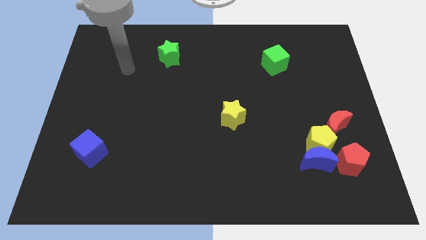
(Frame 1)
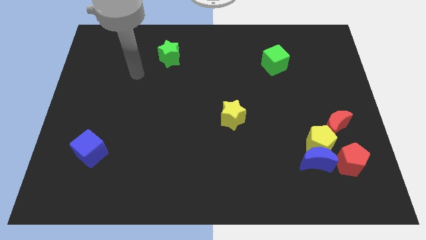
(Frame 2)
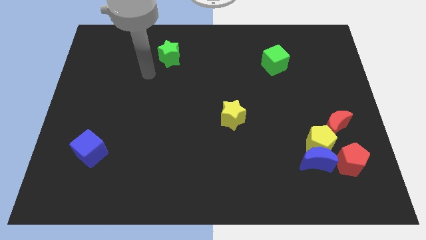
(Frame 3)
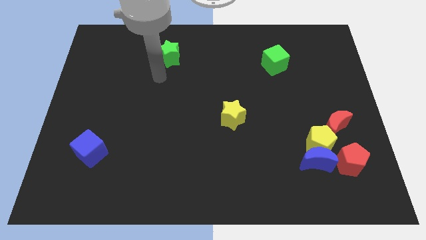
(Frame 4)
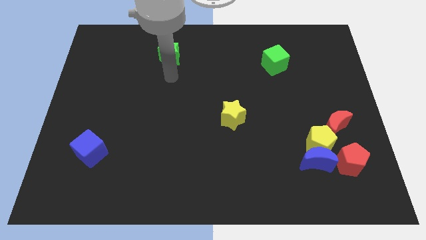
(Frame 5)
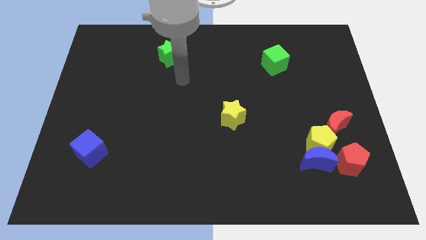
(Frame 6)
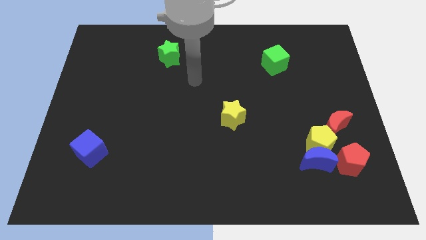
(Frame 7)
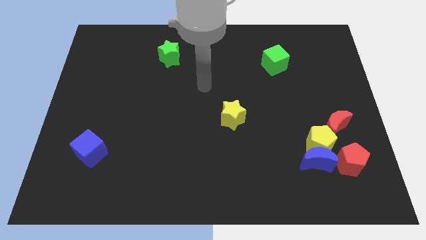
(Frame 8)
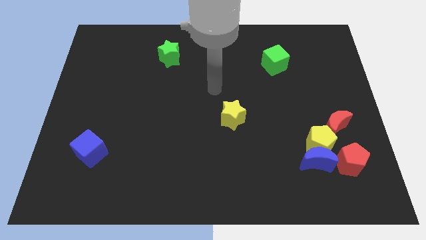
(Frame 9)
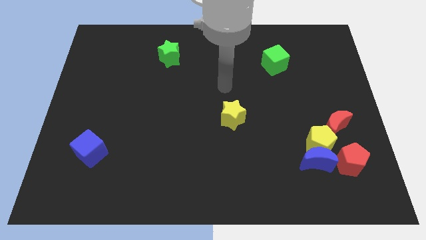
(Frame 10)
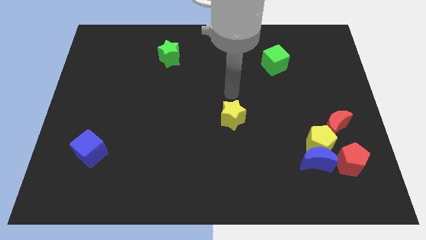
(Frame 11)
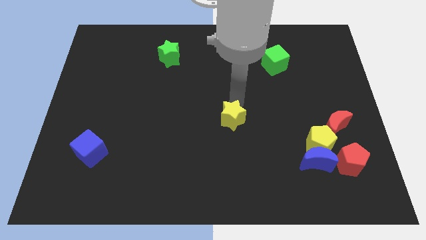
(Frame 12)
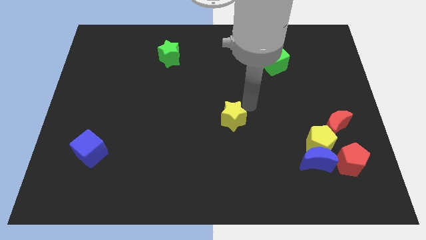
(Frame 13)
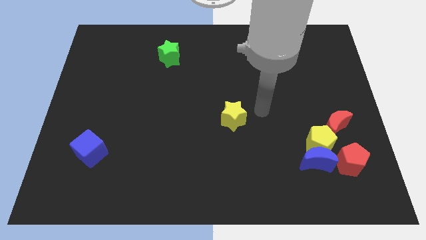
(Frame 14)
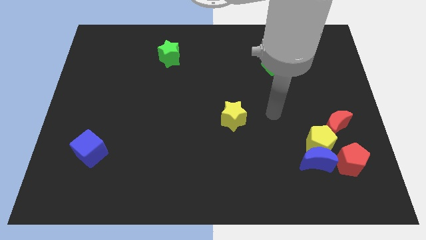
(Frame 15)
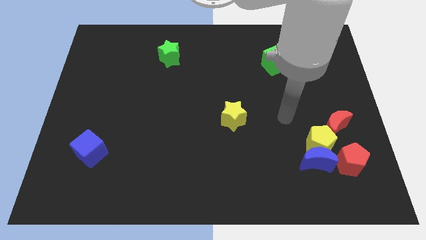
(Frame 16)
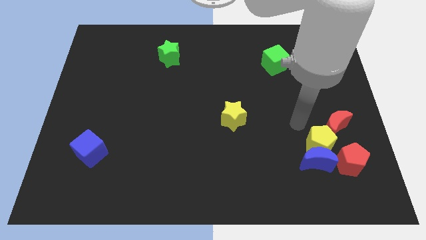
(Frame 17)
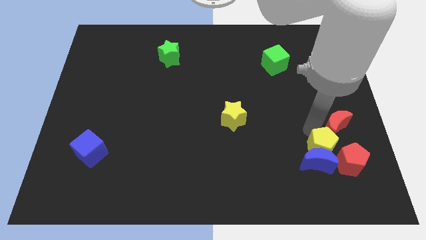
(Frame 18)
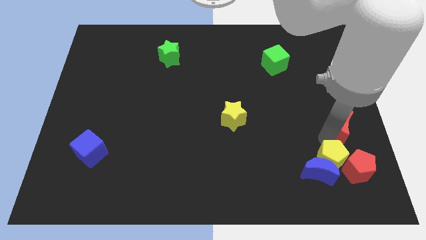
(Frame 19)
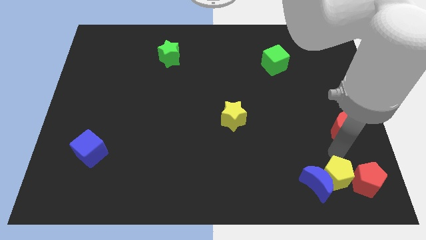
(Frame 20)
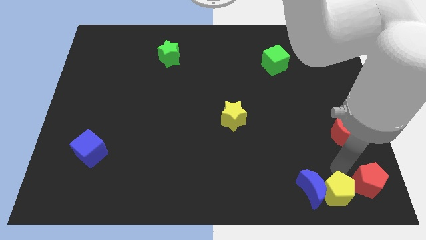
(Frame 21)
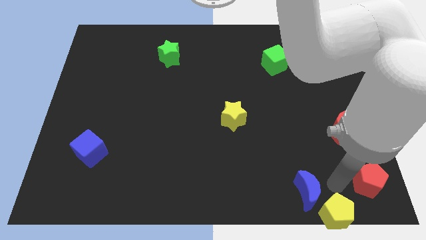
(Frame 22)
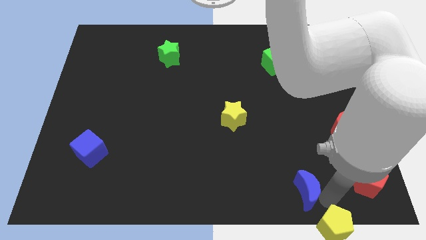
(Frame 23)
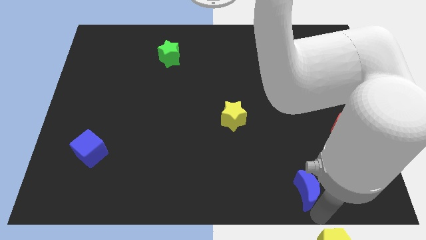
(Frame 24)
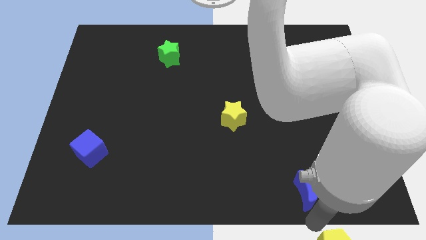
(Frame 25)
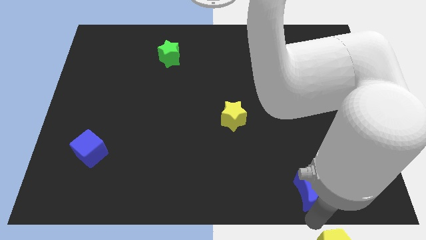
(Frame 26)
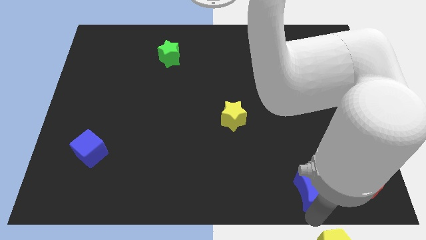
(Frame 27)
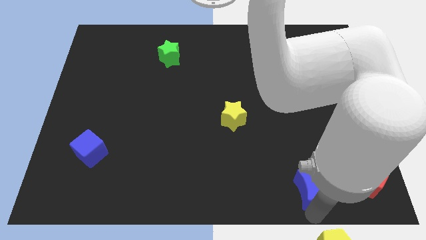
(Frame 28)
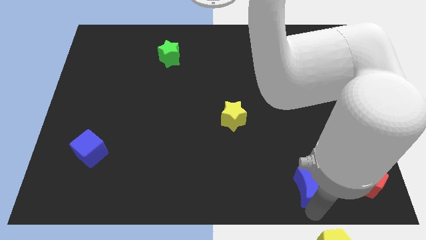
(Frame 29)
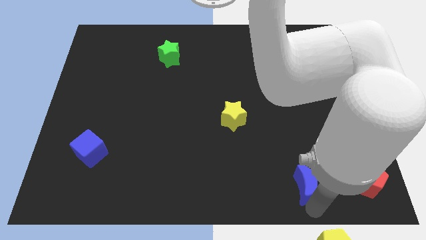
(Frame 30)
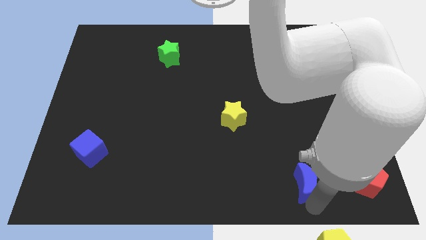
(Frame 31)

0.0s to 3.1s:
pull the blue moon apart from the yellow pentagon and red pentagon

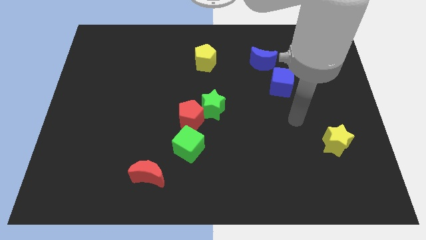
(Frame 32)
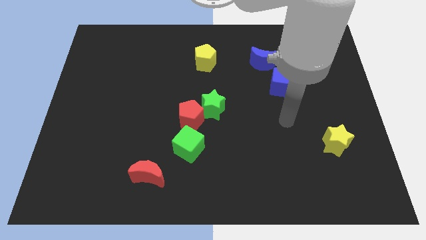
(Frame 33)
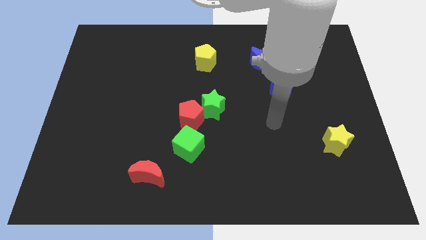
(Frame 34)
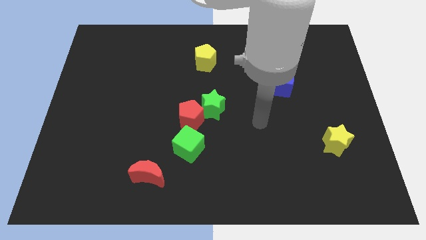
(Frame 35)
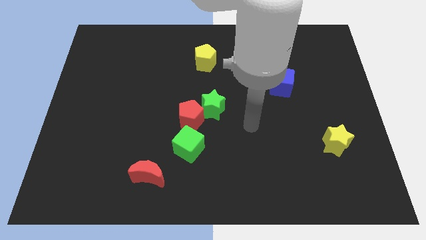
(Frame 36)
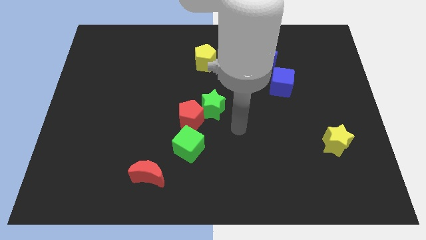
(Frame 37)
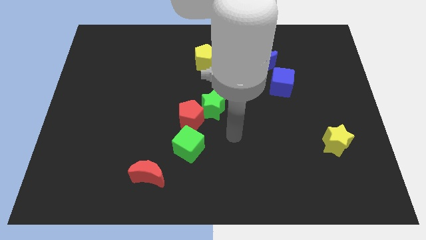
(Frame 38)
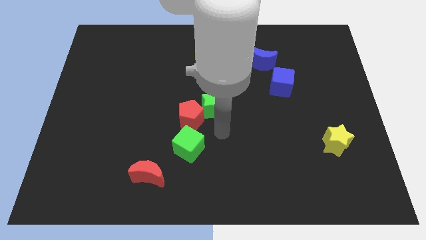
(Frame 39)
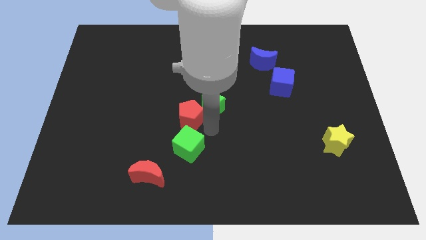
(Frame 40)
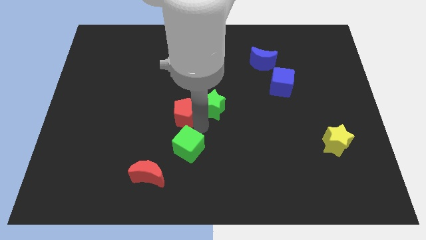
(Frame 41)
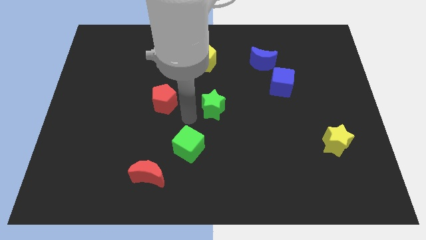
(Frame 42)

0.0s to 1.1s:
move the green star away from the red pentagon

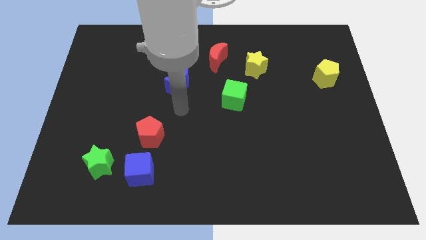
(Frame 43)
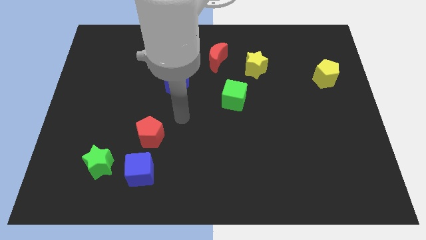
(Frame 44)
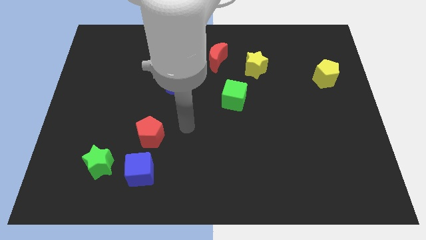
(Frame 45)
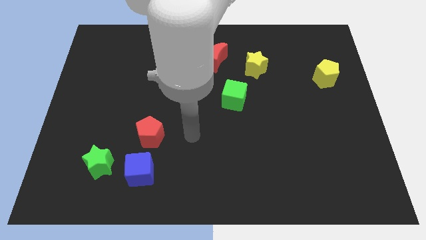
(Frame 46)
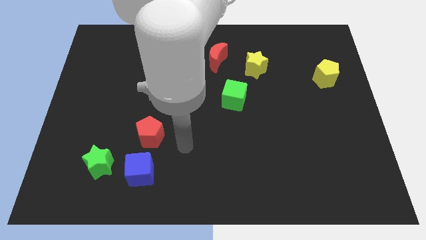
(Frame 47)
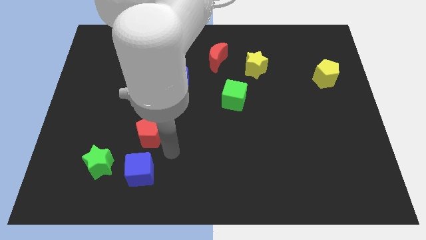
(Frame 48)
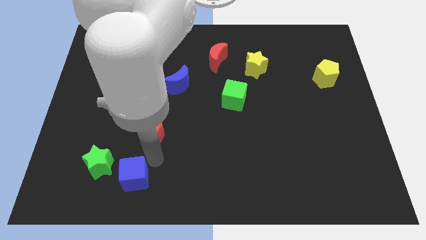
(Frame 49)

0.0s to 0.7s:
separate the red pentagon from the blue cube

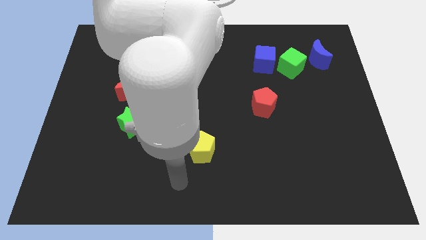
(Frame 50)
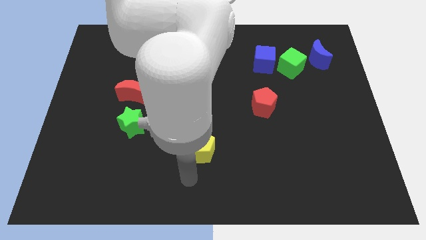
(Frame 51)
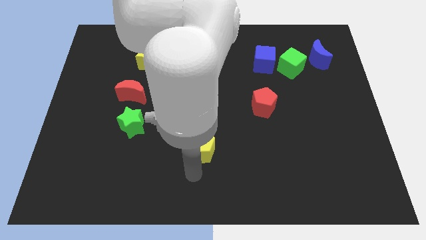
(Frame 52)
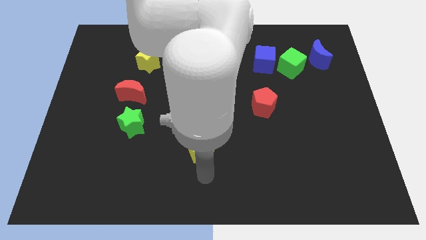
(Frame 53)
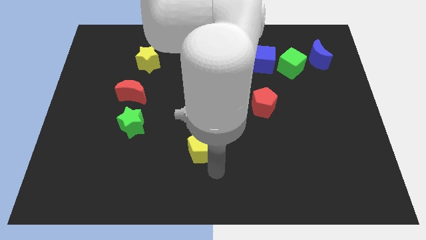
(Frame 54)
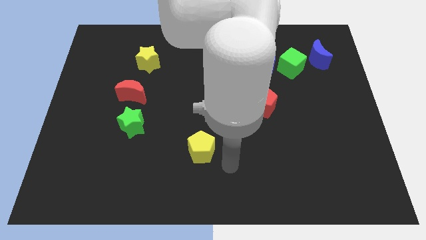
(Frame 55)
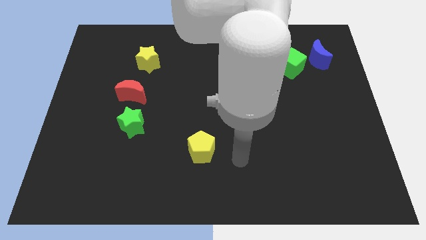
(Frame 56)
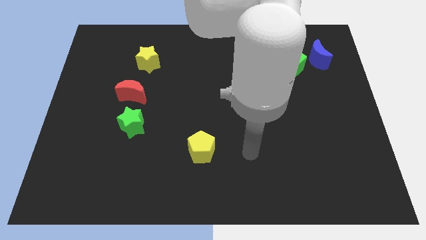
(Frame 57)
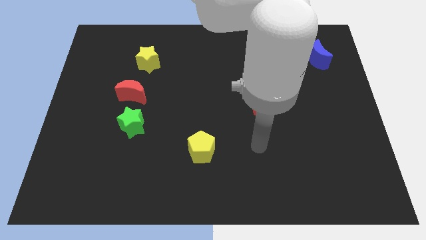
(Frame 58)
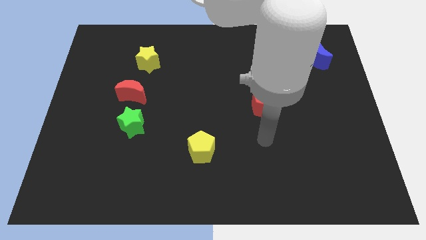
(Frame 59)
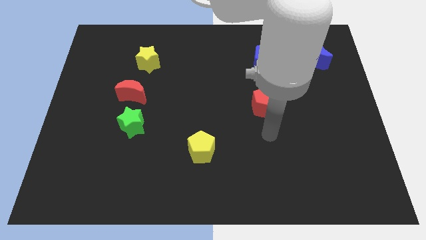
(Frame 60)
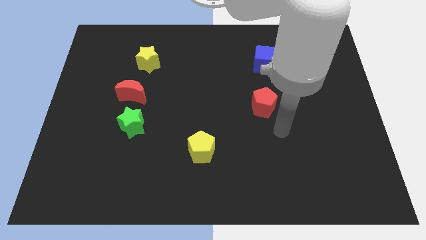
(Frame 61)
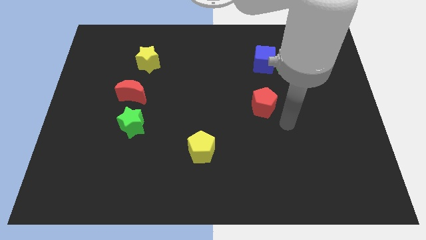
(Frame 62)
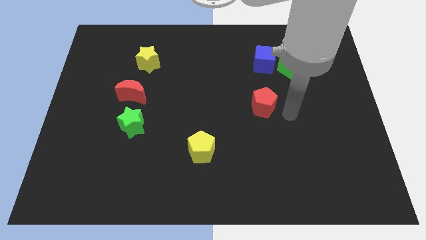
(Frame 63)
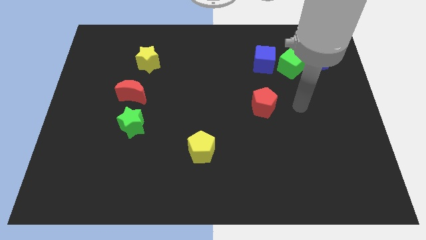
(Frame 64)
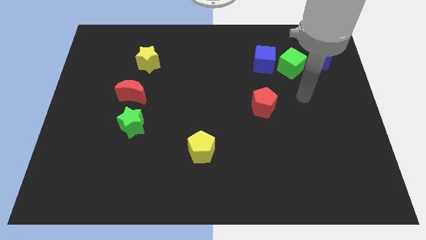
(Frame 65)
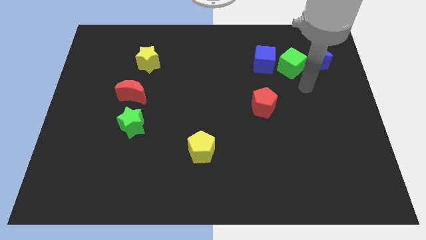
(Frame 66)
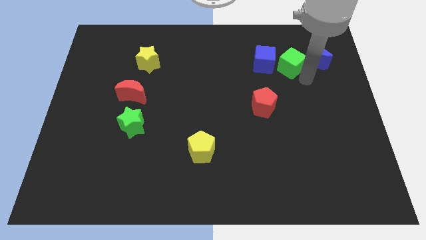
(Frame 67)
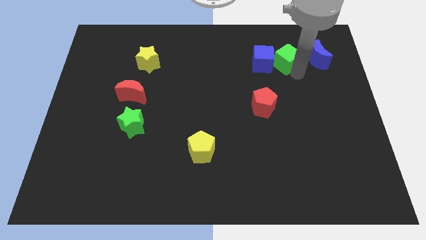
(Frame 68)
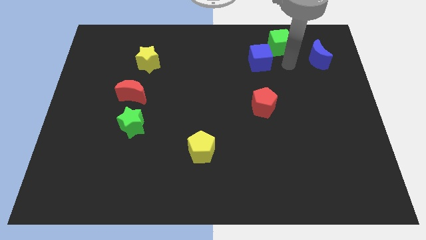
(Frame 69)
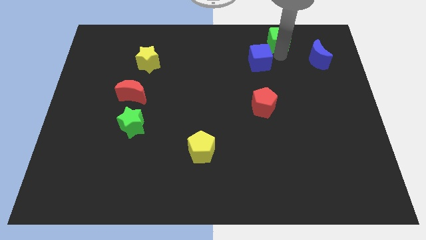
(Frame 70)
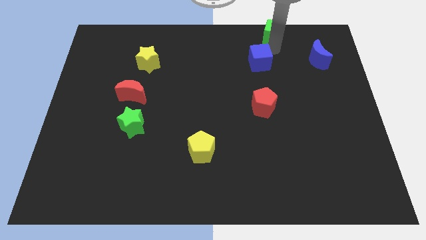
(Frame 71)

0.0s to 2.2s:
pull the blue cube apart from the green cube

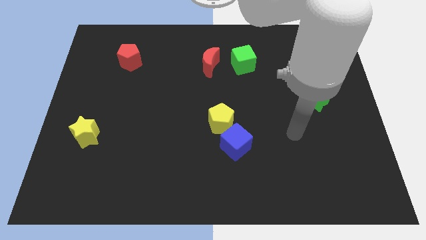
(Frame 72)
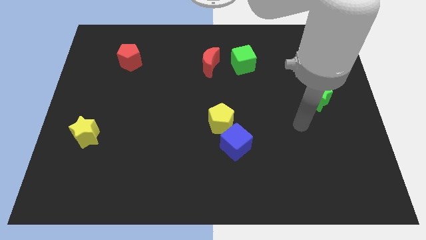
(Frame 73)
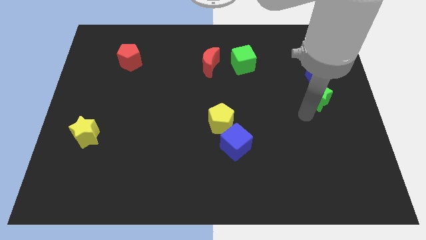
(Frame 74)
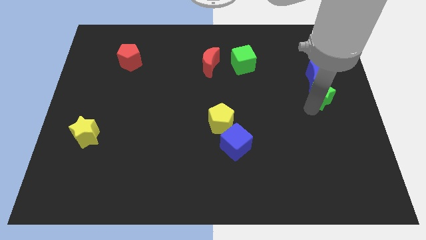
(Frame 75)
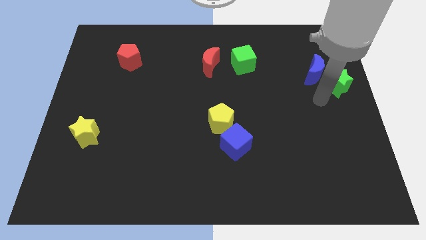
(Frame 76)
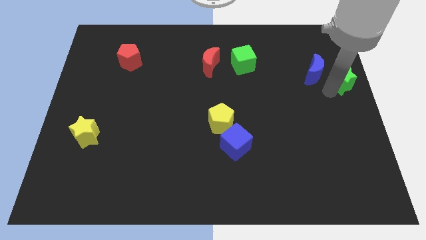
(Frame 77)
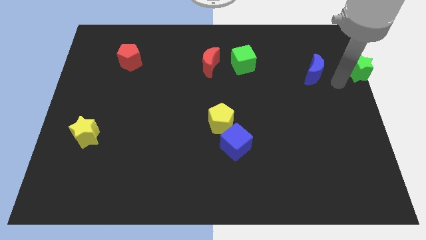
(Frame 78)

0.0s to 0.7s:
separate the blue moon from the green star

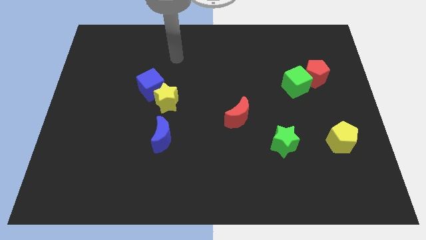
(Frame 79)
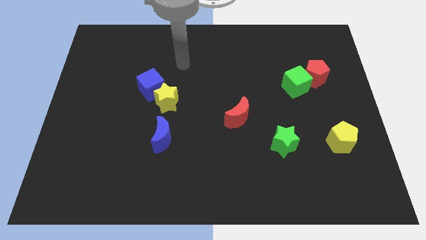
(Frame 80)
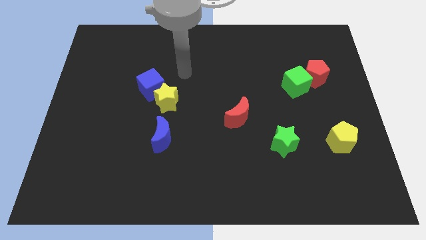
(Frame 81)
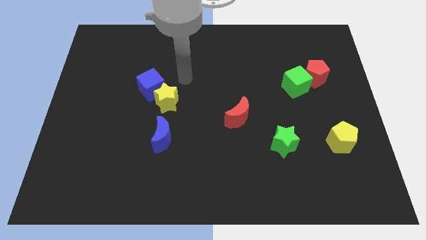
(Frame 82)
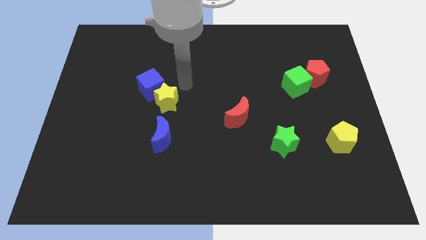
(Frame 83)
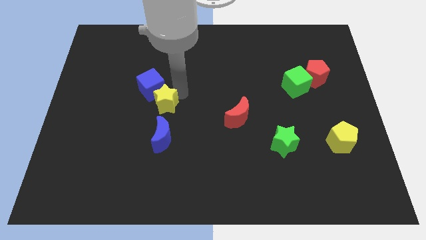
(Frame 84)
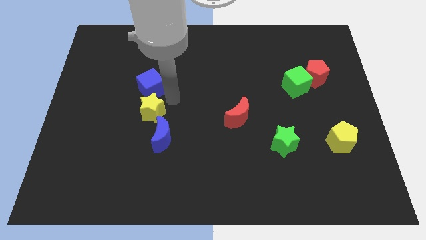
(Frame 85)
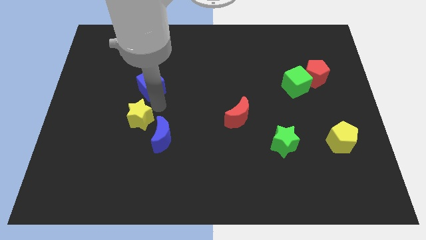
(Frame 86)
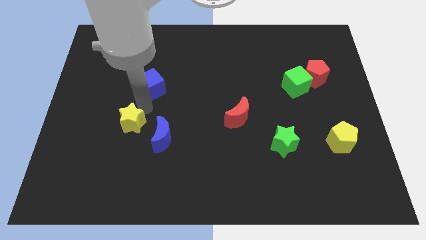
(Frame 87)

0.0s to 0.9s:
separate the blue cube from the yellow star

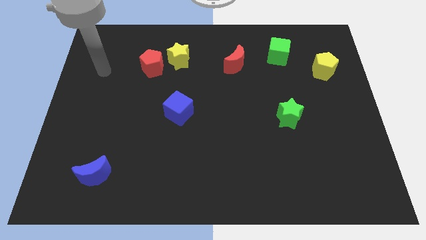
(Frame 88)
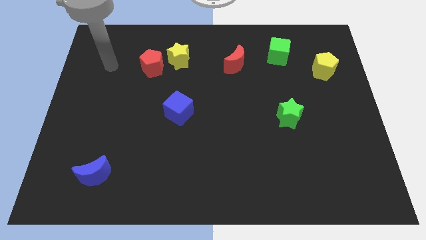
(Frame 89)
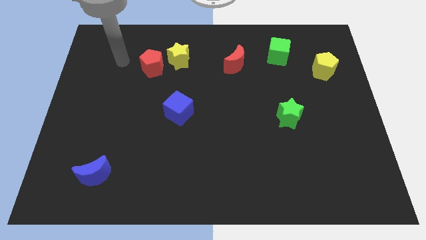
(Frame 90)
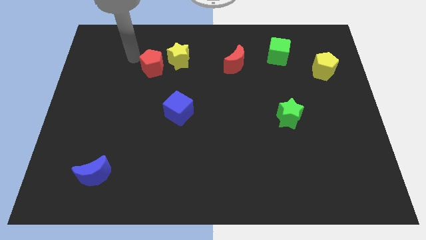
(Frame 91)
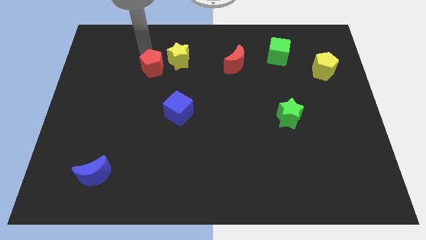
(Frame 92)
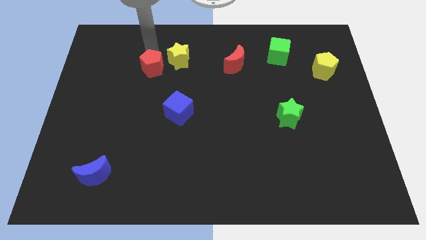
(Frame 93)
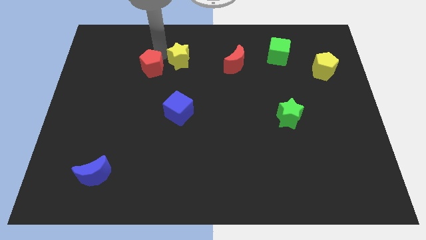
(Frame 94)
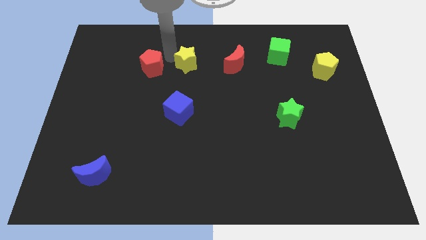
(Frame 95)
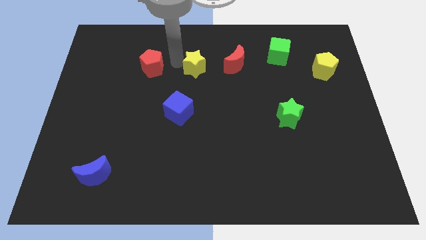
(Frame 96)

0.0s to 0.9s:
move the red pentagon away from the yellow star
